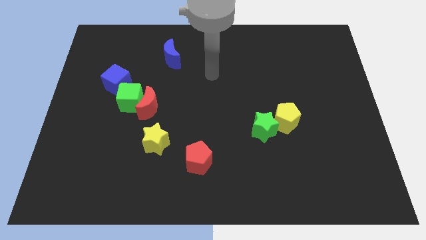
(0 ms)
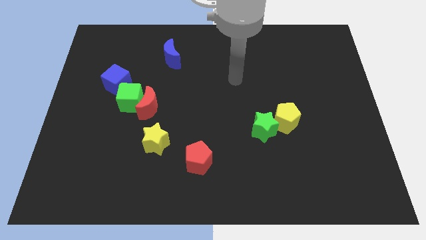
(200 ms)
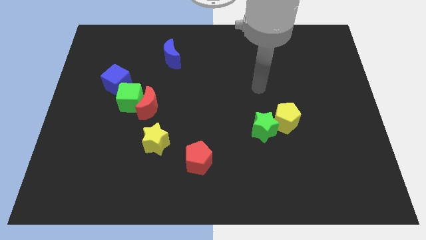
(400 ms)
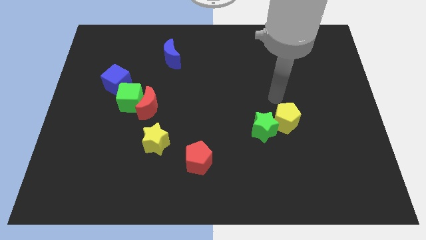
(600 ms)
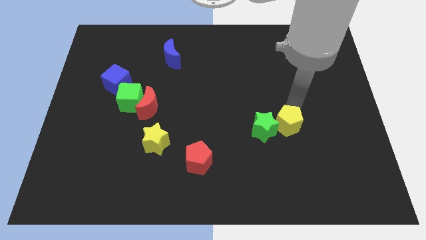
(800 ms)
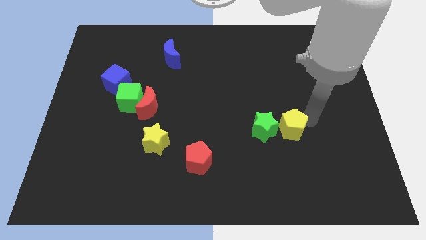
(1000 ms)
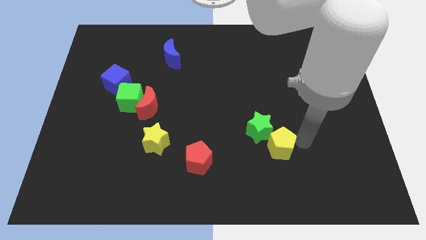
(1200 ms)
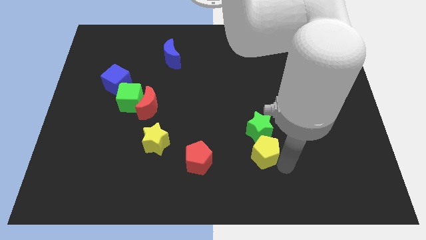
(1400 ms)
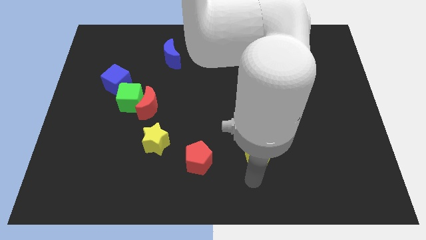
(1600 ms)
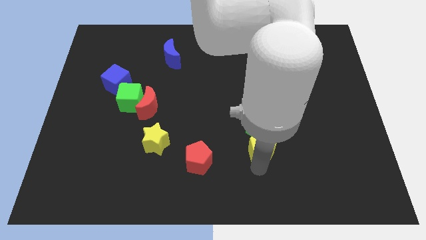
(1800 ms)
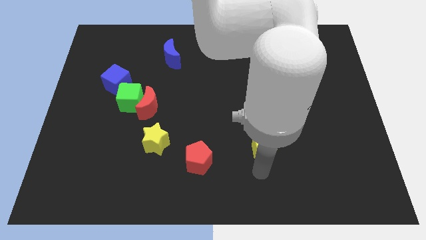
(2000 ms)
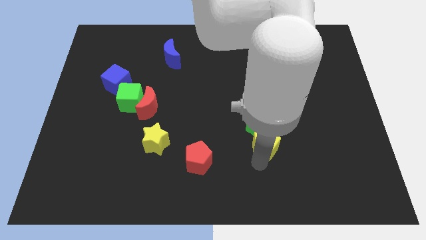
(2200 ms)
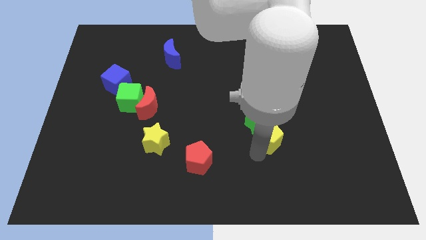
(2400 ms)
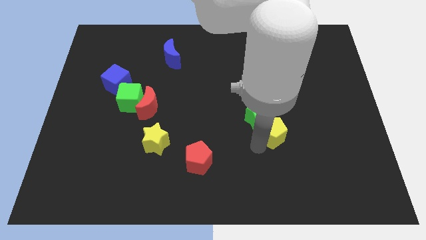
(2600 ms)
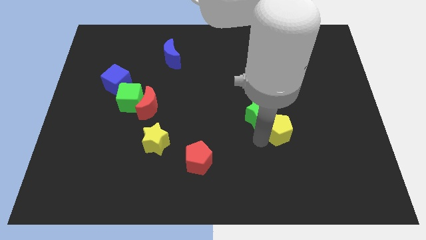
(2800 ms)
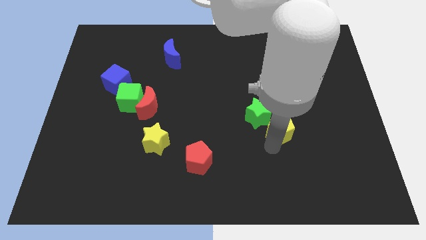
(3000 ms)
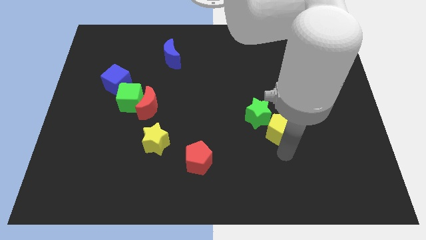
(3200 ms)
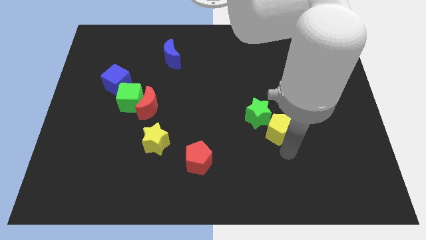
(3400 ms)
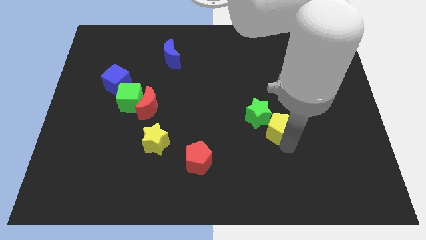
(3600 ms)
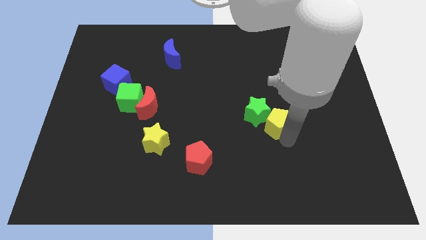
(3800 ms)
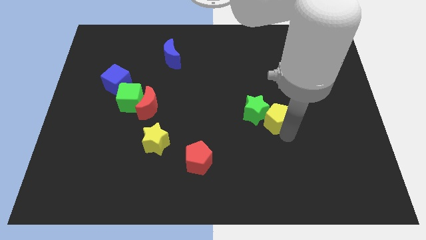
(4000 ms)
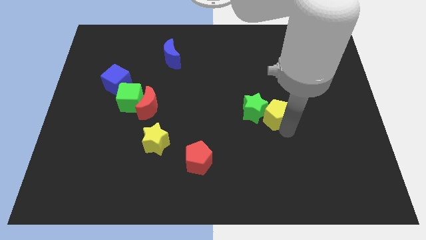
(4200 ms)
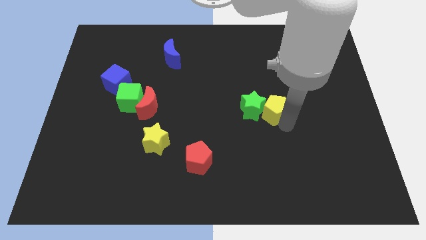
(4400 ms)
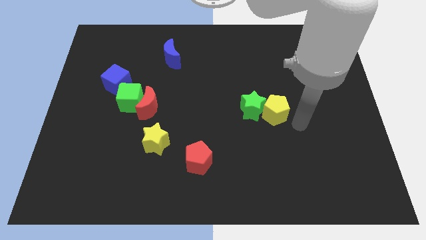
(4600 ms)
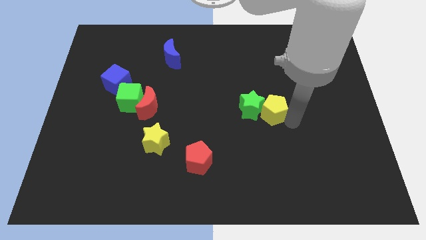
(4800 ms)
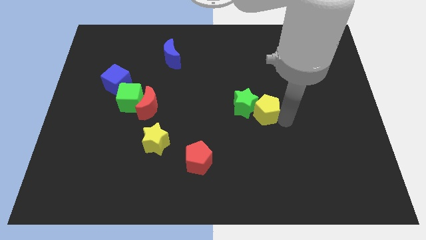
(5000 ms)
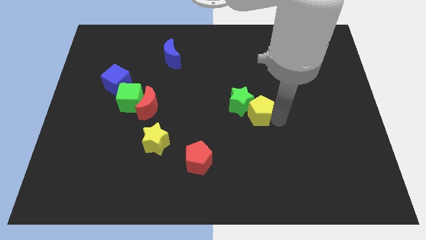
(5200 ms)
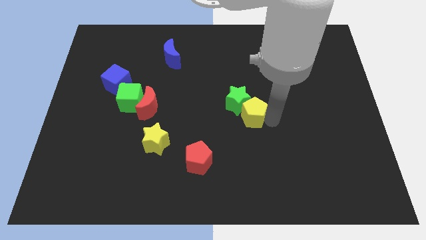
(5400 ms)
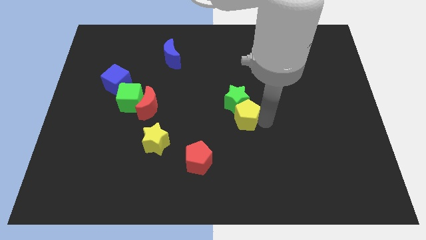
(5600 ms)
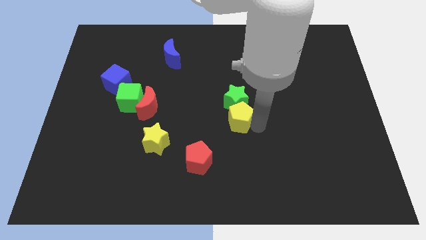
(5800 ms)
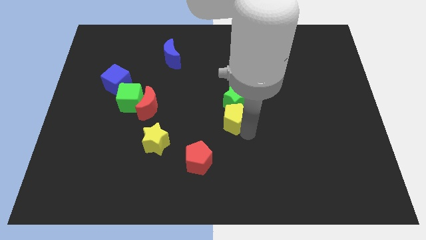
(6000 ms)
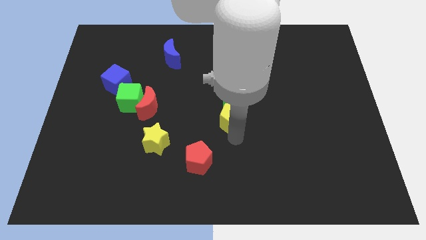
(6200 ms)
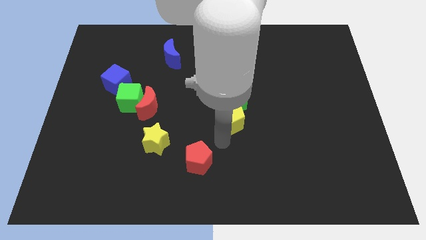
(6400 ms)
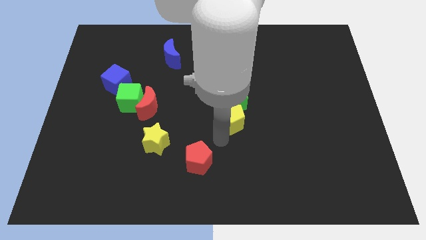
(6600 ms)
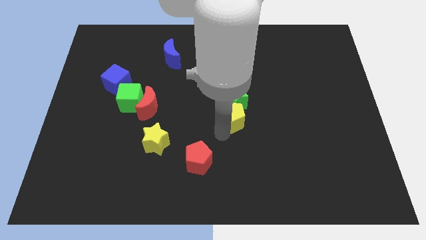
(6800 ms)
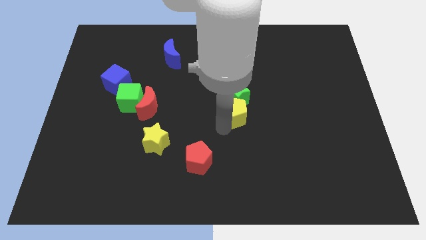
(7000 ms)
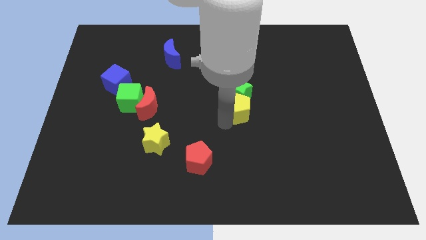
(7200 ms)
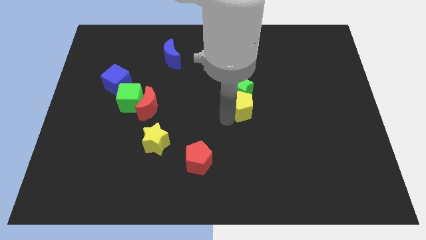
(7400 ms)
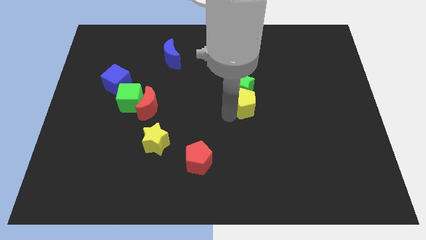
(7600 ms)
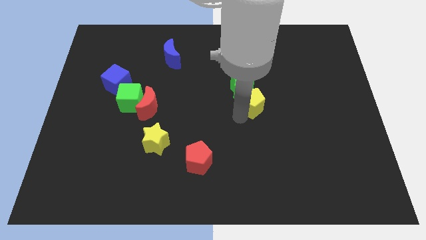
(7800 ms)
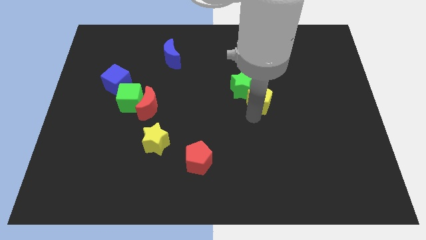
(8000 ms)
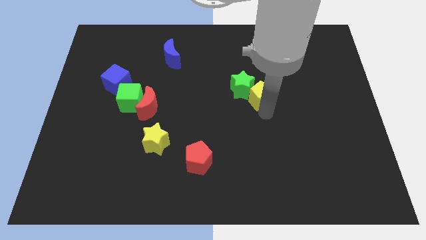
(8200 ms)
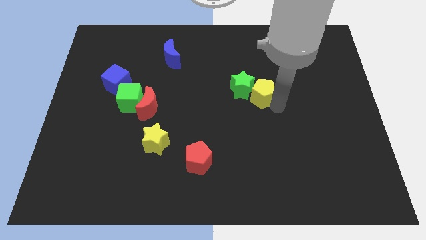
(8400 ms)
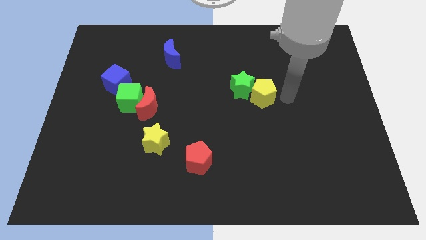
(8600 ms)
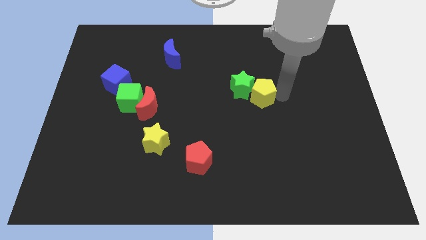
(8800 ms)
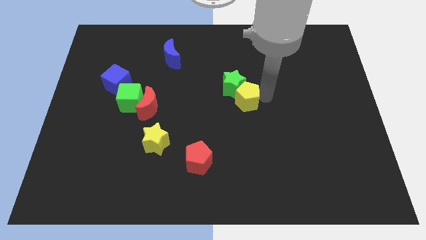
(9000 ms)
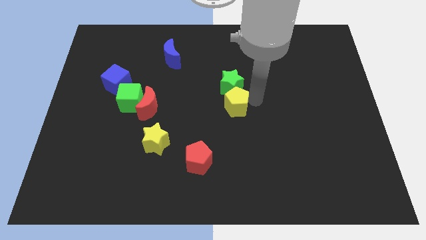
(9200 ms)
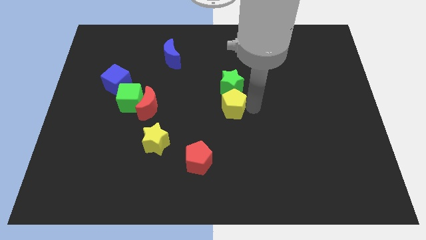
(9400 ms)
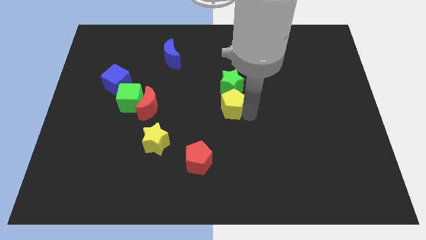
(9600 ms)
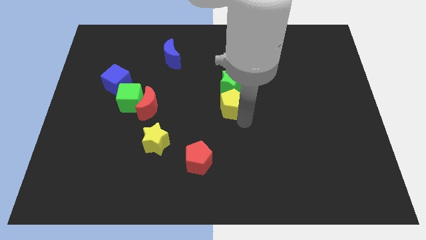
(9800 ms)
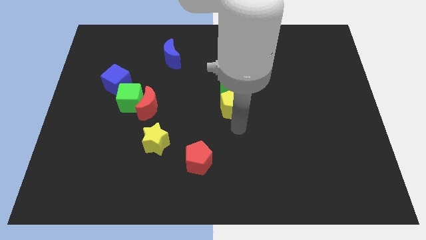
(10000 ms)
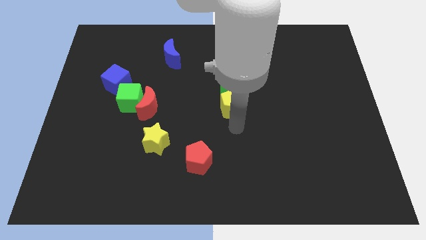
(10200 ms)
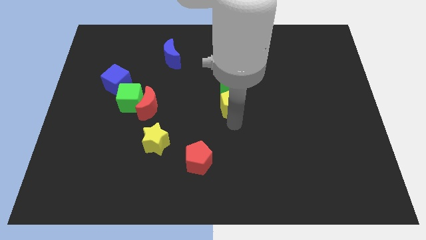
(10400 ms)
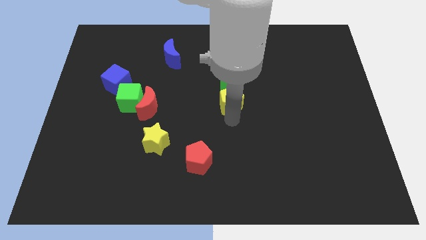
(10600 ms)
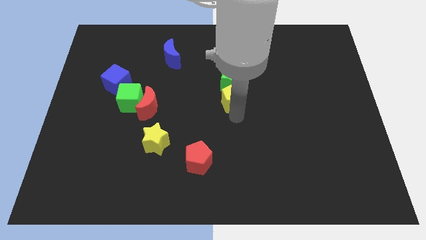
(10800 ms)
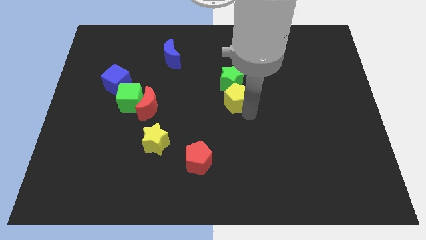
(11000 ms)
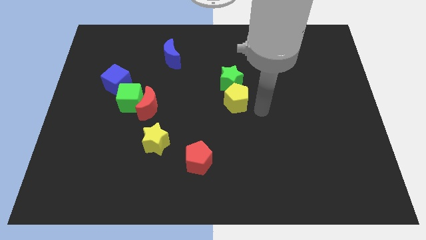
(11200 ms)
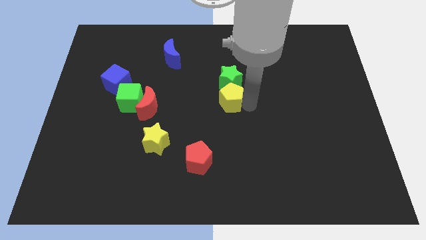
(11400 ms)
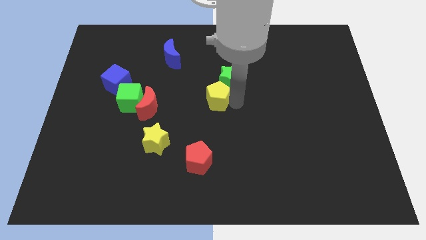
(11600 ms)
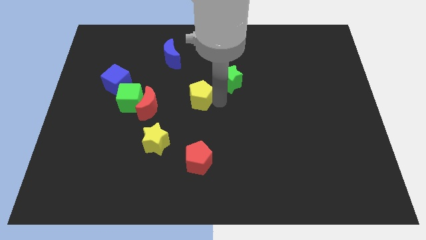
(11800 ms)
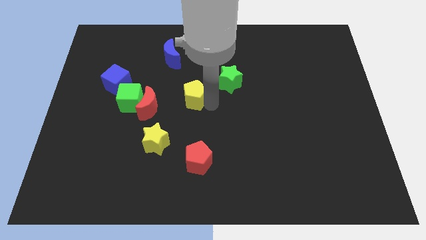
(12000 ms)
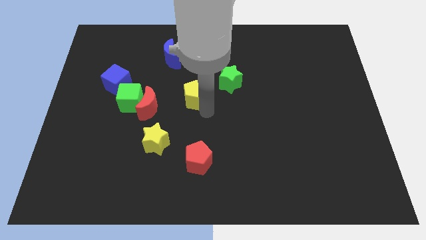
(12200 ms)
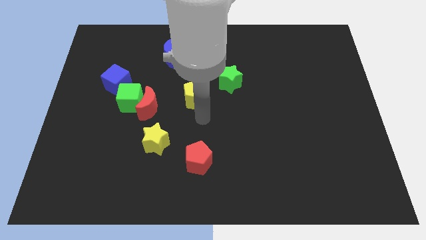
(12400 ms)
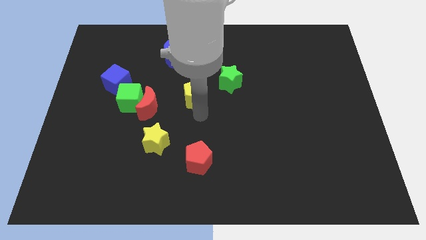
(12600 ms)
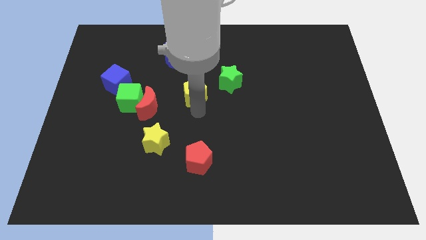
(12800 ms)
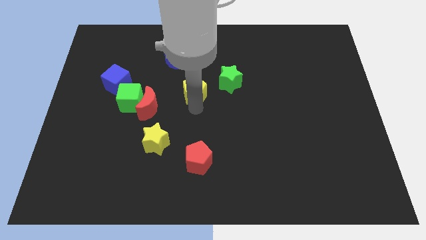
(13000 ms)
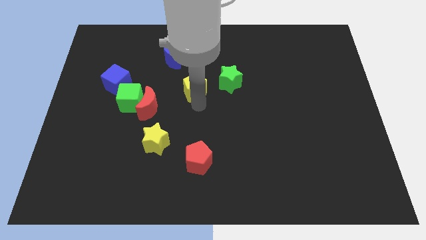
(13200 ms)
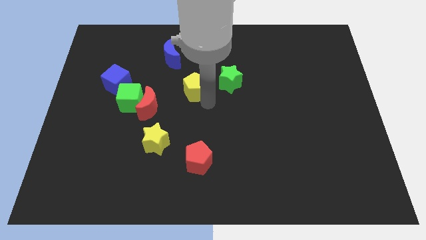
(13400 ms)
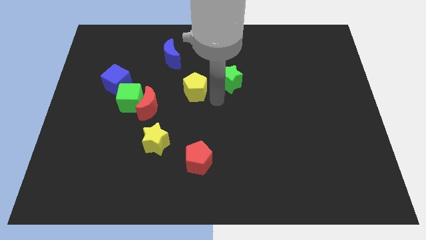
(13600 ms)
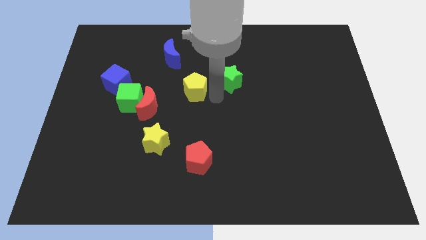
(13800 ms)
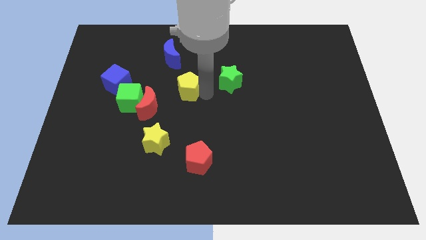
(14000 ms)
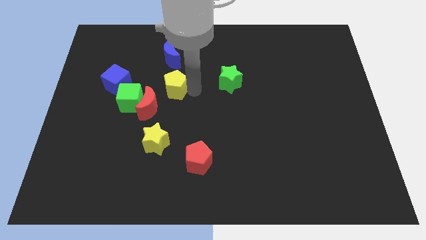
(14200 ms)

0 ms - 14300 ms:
move the yellow pentagon diagonally up and to the right of the green cube
